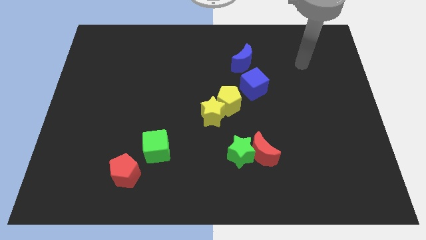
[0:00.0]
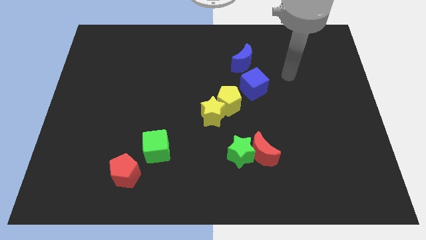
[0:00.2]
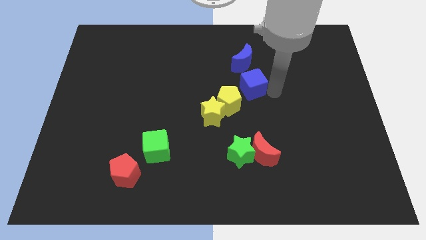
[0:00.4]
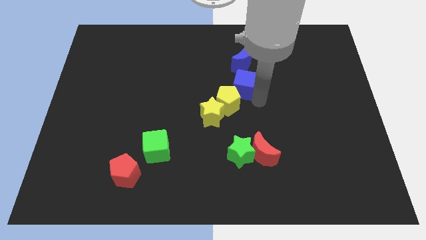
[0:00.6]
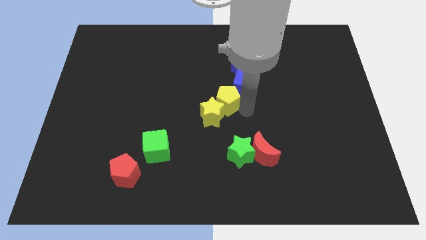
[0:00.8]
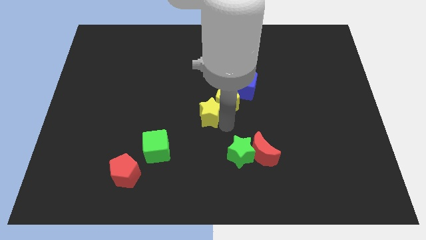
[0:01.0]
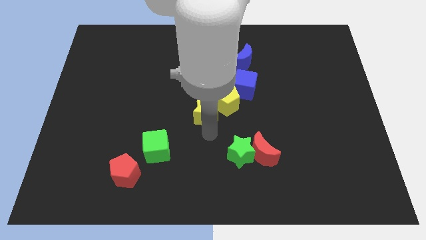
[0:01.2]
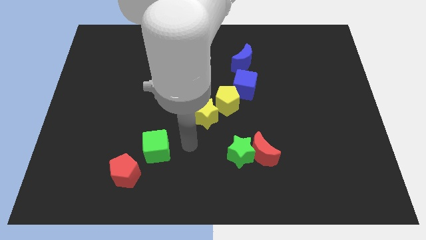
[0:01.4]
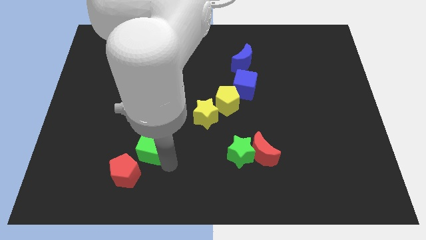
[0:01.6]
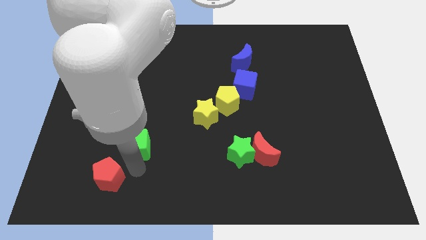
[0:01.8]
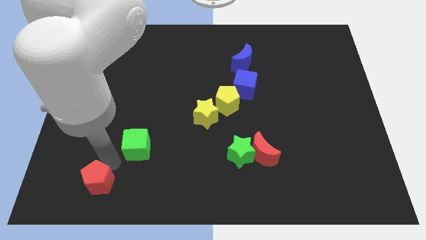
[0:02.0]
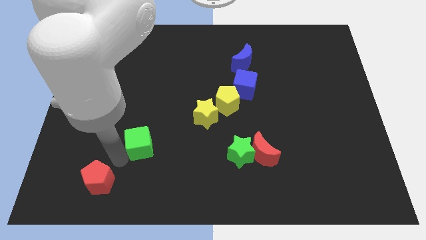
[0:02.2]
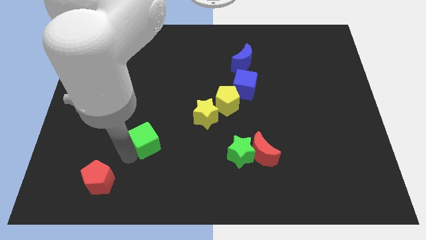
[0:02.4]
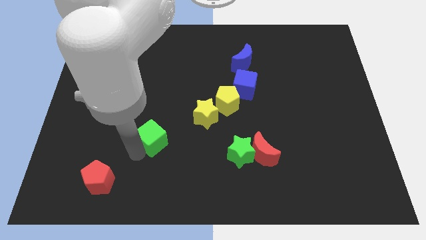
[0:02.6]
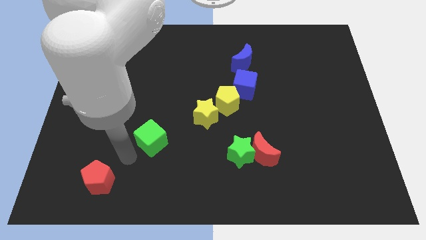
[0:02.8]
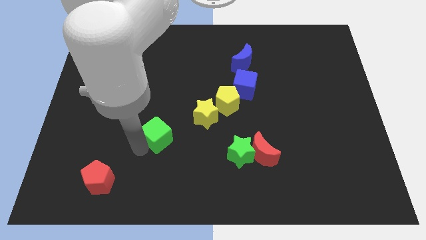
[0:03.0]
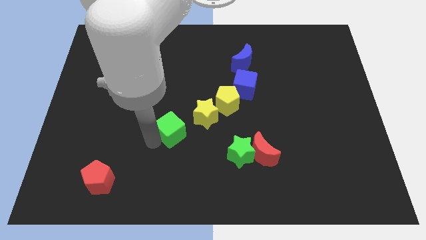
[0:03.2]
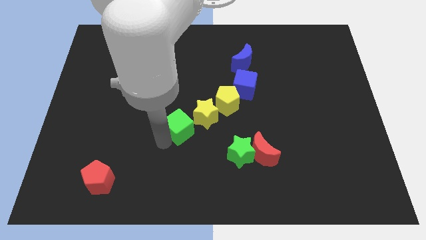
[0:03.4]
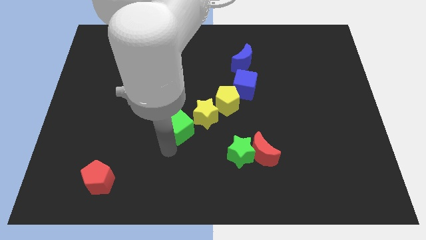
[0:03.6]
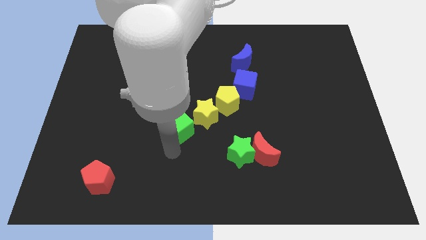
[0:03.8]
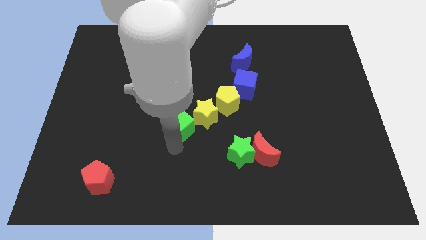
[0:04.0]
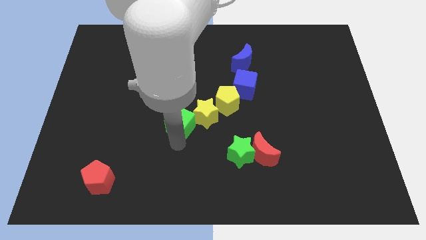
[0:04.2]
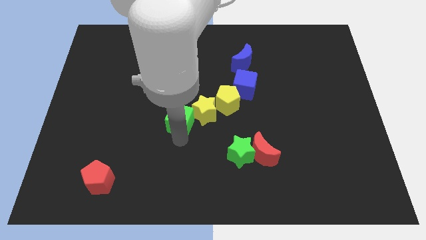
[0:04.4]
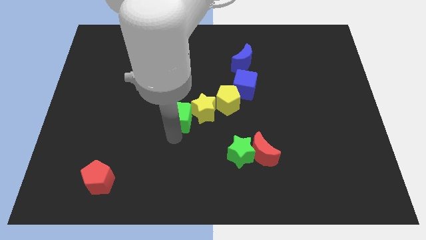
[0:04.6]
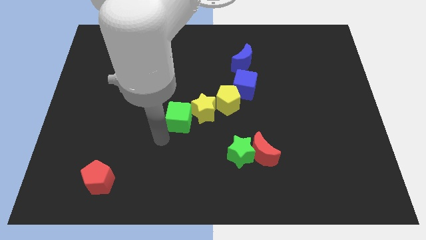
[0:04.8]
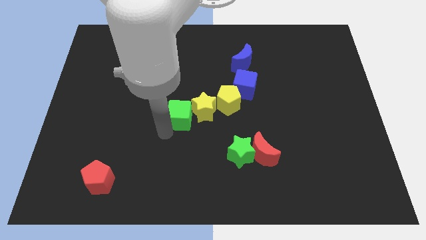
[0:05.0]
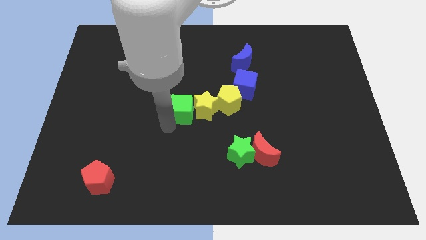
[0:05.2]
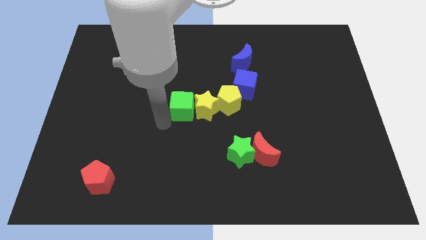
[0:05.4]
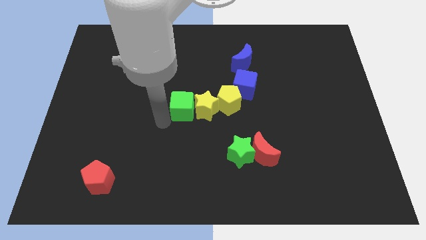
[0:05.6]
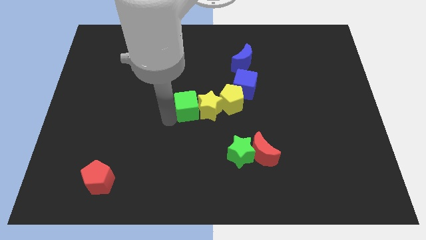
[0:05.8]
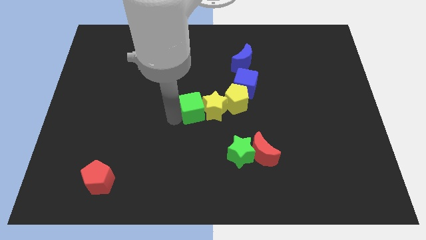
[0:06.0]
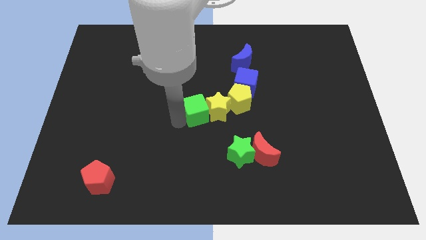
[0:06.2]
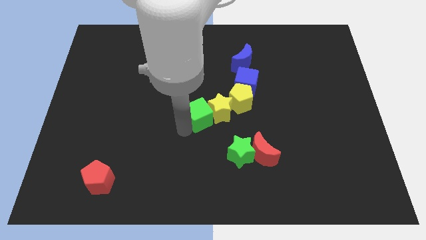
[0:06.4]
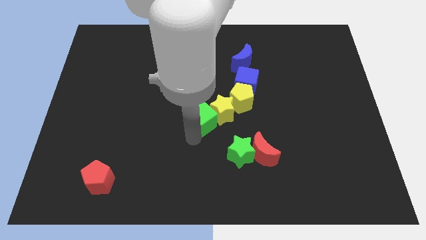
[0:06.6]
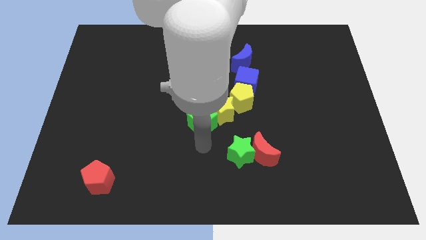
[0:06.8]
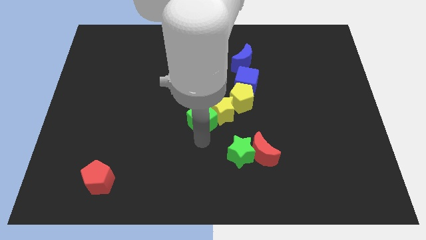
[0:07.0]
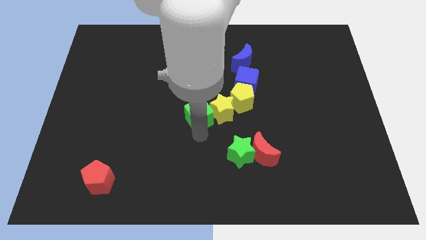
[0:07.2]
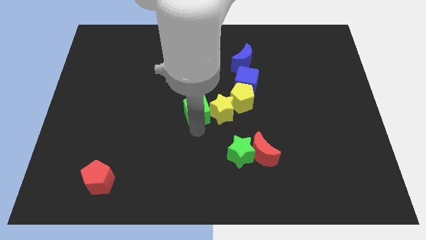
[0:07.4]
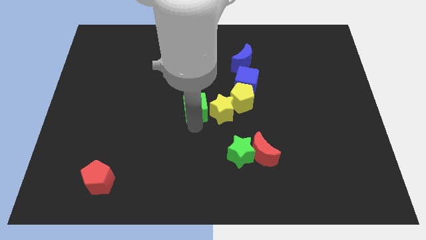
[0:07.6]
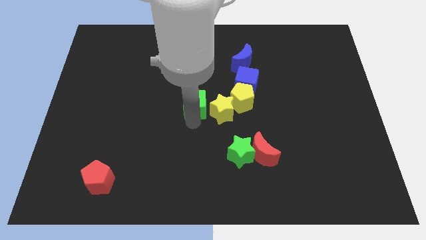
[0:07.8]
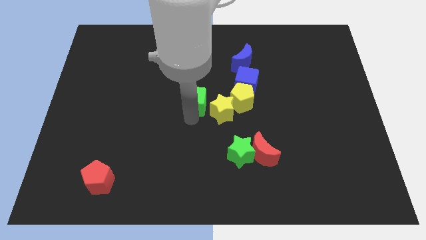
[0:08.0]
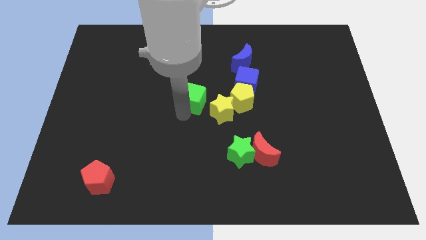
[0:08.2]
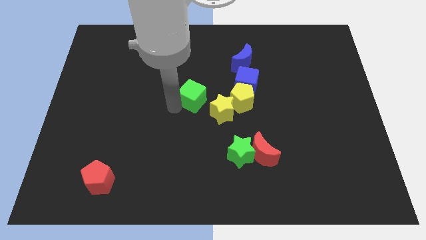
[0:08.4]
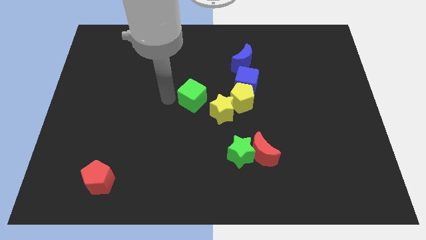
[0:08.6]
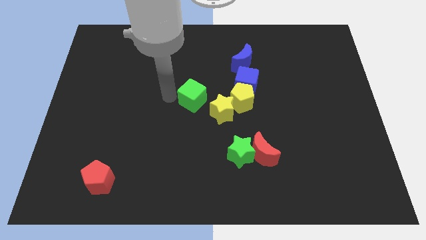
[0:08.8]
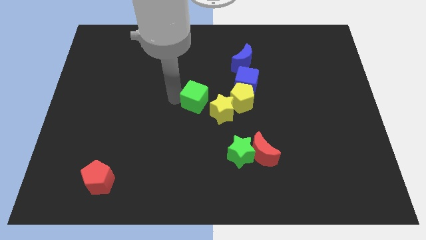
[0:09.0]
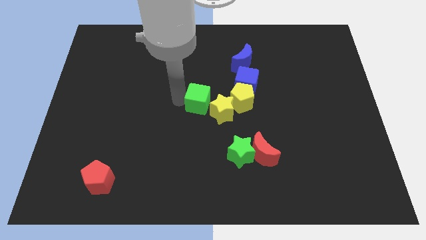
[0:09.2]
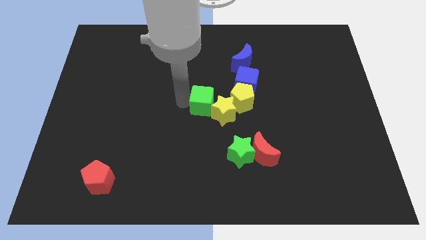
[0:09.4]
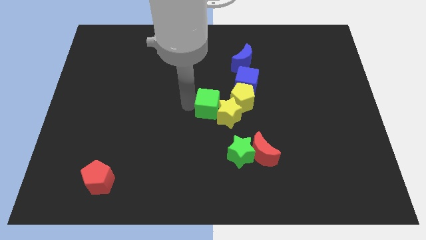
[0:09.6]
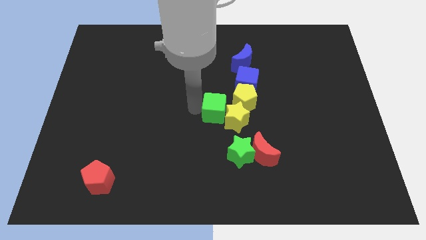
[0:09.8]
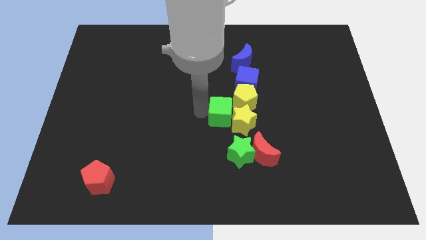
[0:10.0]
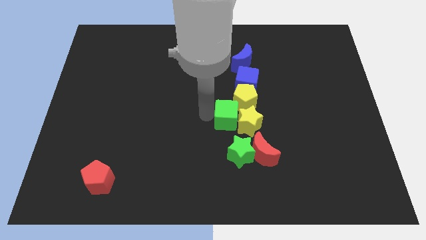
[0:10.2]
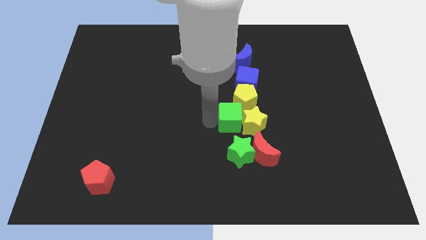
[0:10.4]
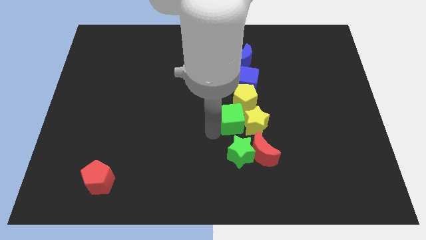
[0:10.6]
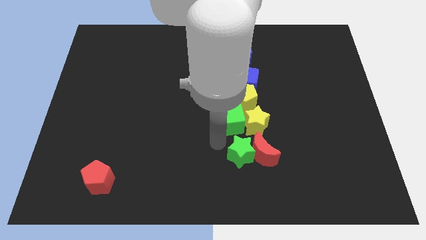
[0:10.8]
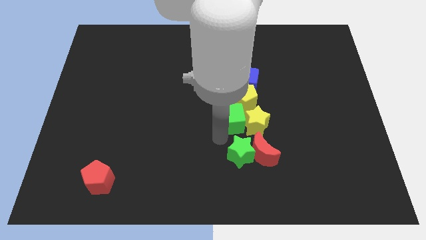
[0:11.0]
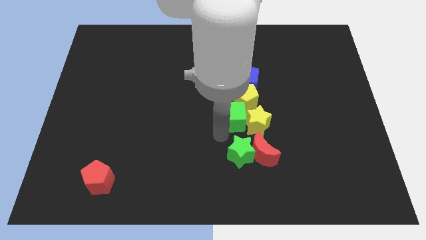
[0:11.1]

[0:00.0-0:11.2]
move the green cube towards the yellow pentagon

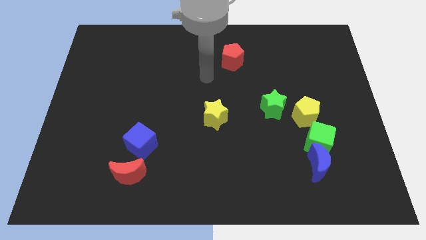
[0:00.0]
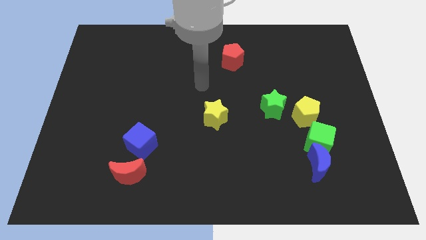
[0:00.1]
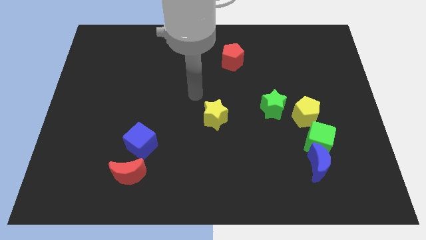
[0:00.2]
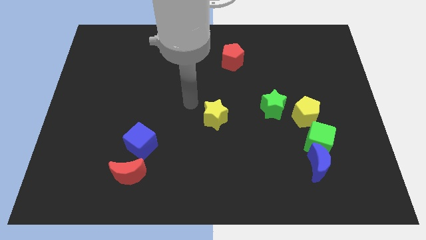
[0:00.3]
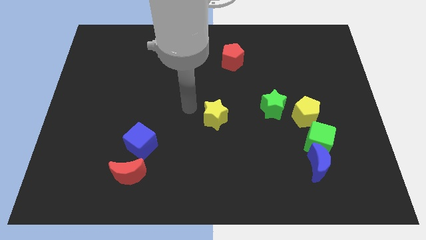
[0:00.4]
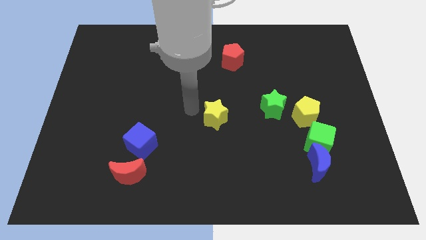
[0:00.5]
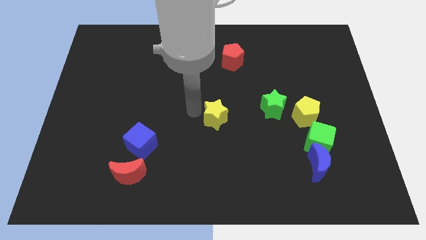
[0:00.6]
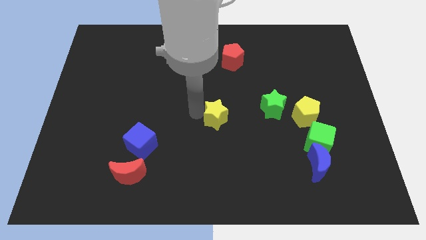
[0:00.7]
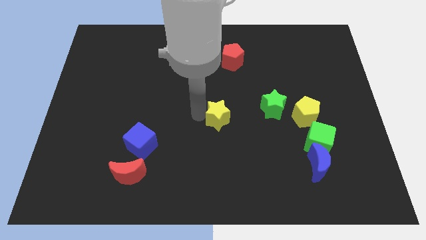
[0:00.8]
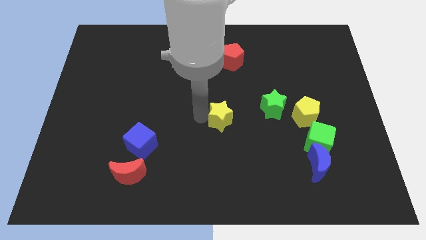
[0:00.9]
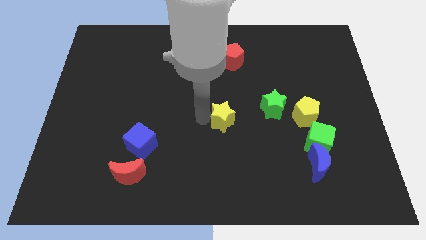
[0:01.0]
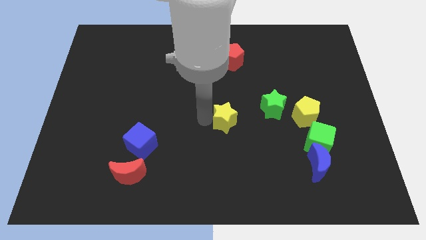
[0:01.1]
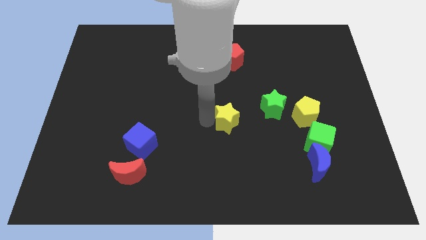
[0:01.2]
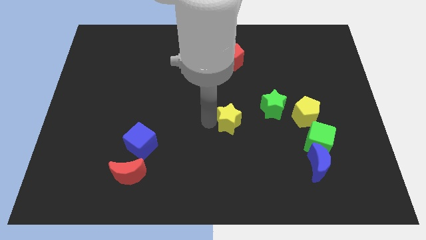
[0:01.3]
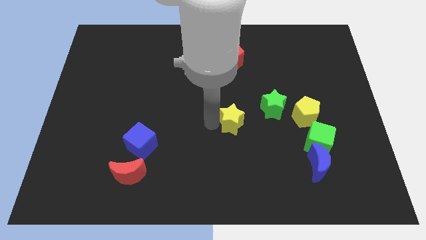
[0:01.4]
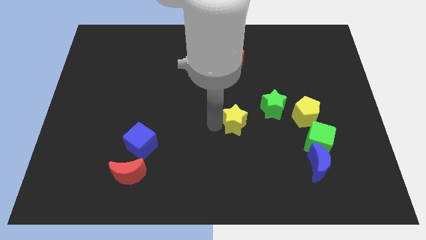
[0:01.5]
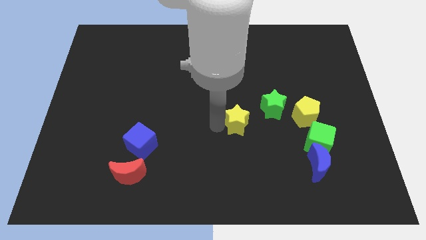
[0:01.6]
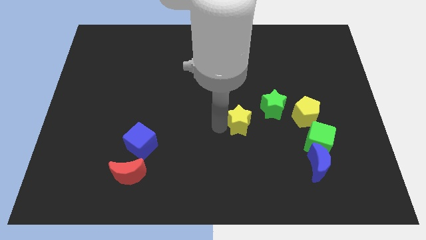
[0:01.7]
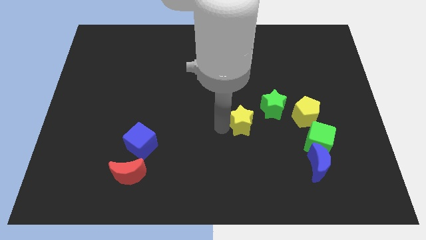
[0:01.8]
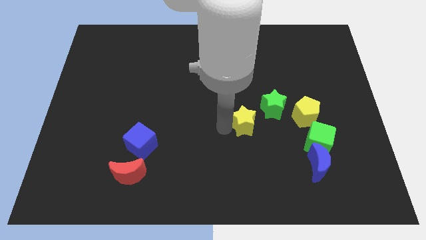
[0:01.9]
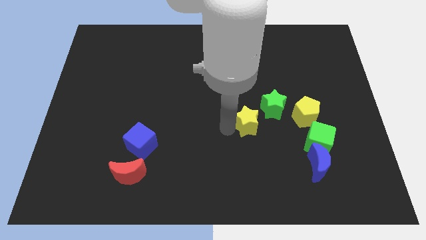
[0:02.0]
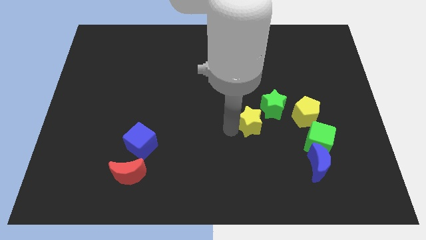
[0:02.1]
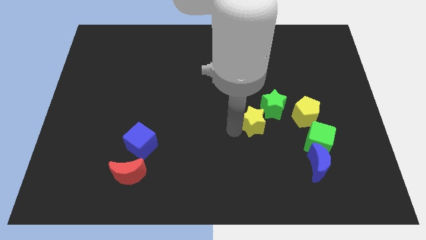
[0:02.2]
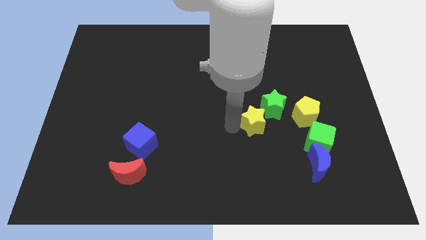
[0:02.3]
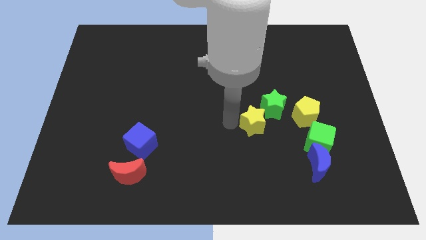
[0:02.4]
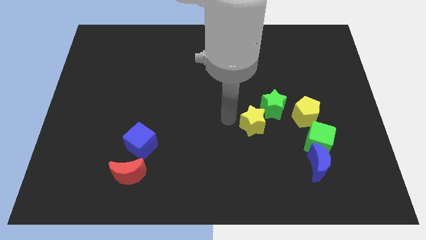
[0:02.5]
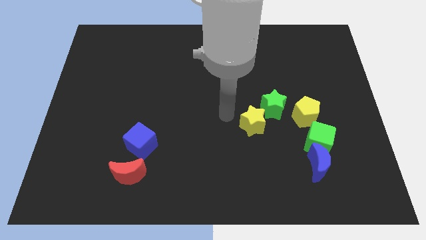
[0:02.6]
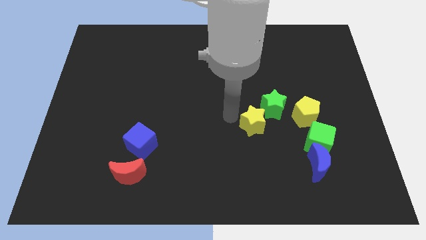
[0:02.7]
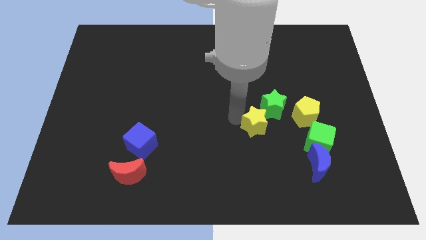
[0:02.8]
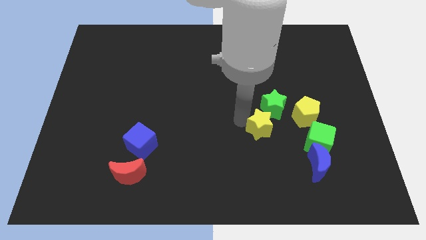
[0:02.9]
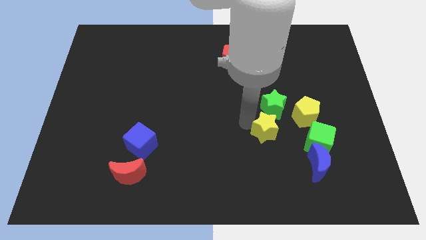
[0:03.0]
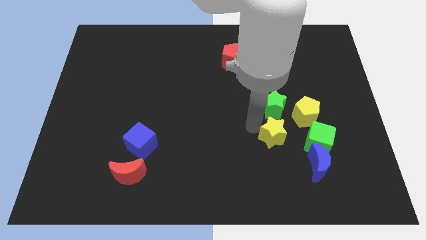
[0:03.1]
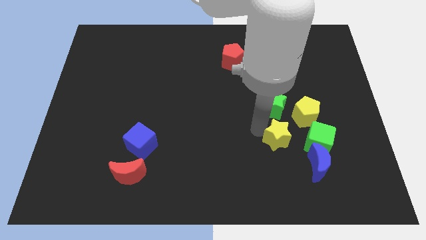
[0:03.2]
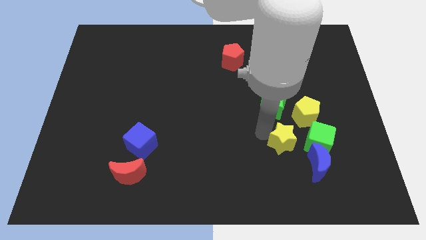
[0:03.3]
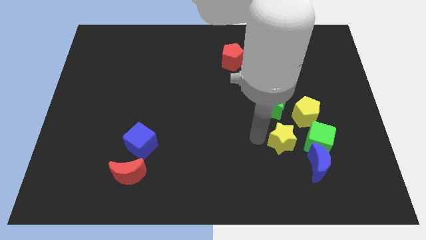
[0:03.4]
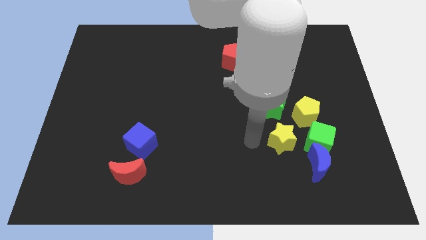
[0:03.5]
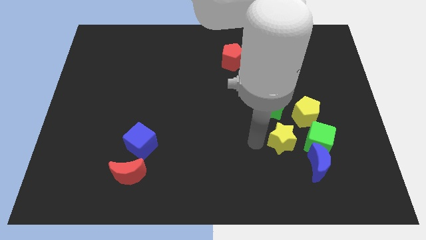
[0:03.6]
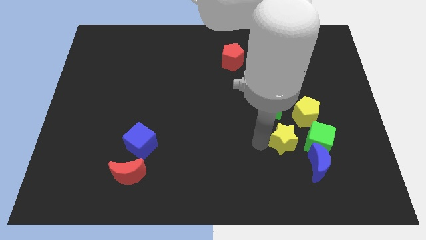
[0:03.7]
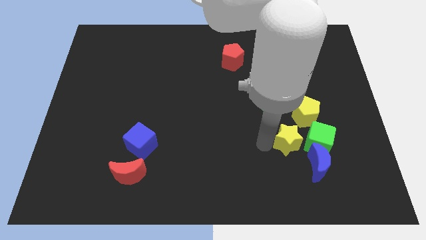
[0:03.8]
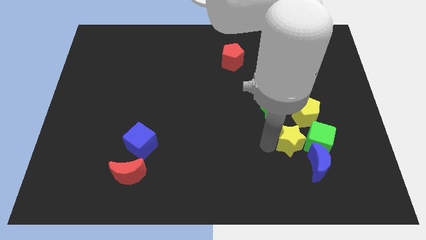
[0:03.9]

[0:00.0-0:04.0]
slide the yellow star towards the green cube
